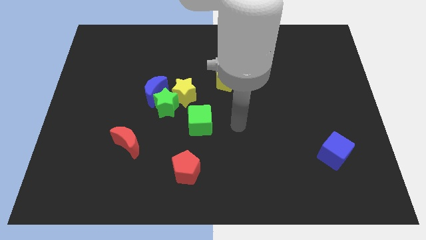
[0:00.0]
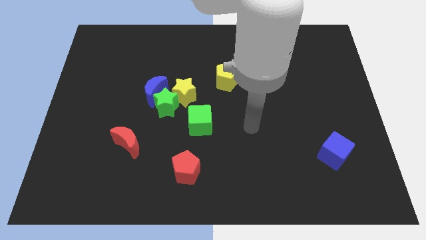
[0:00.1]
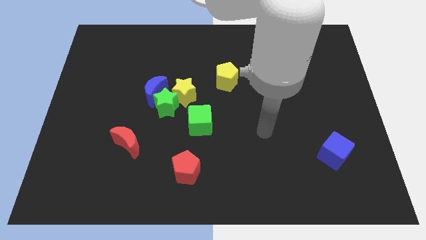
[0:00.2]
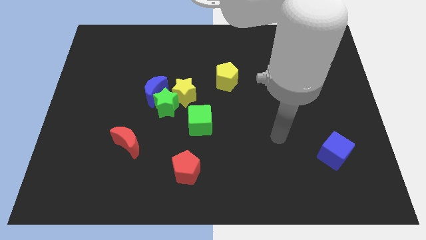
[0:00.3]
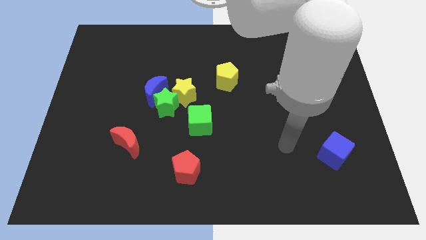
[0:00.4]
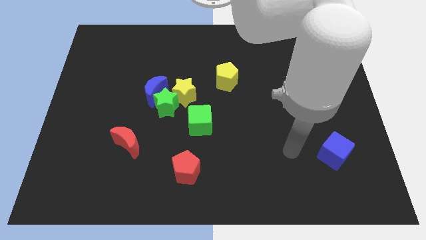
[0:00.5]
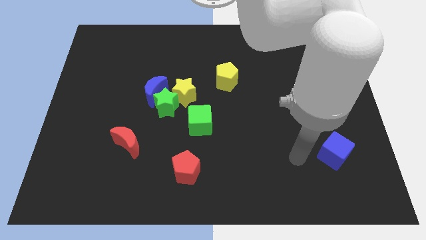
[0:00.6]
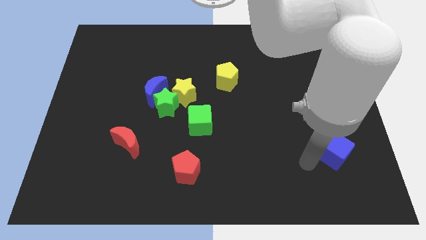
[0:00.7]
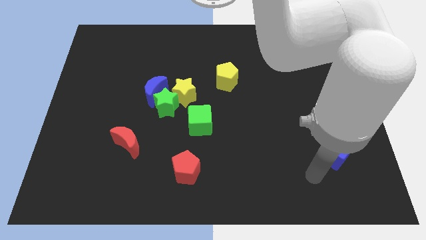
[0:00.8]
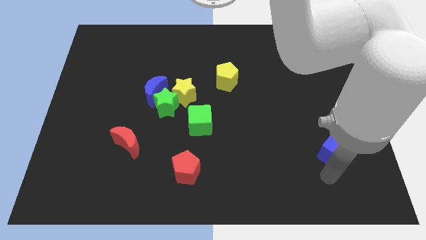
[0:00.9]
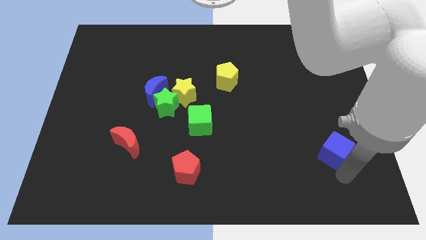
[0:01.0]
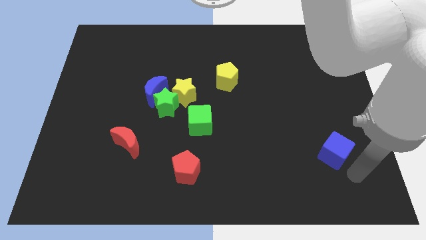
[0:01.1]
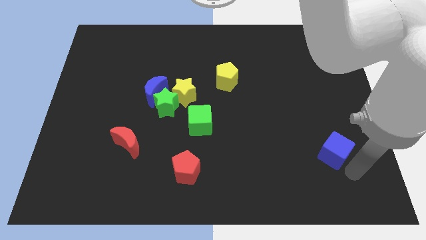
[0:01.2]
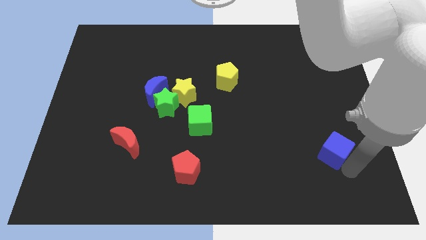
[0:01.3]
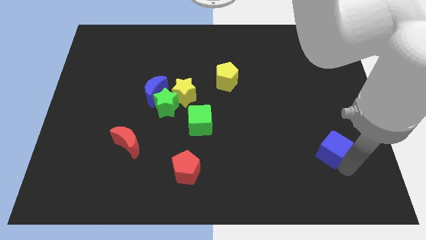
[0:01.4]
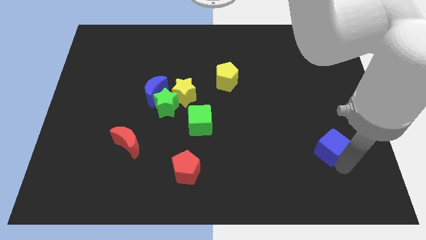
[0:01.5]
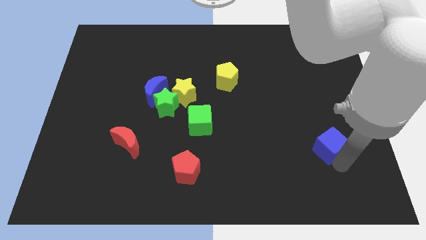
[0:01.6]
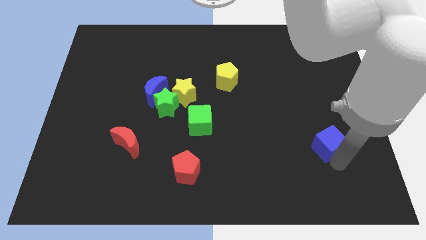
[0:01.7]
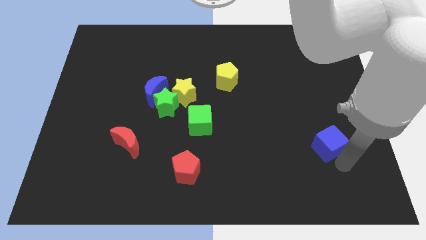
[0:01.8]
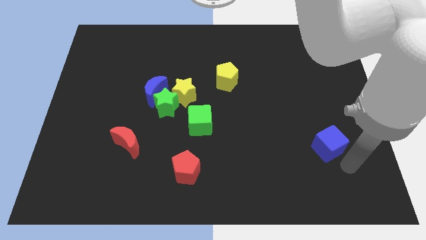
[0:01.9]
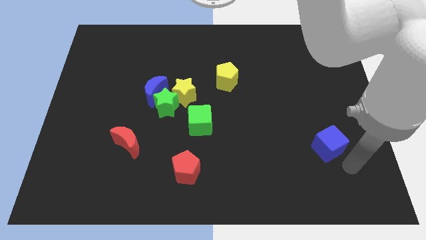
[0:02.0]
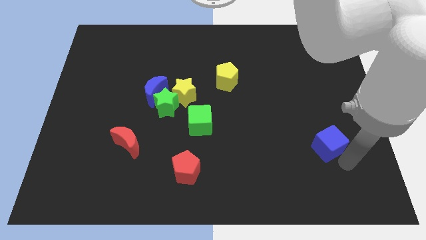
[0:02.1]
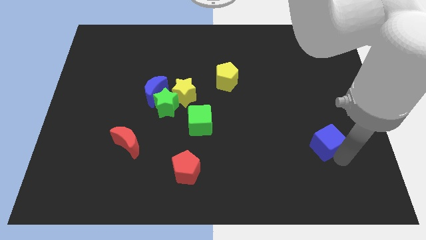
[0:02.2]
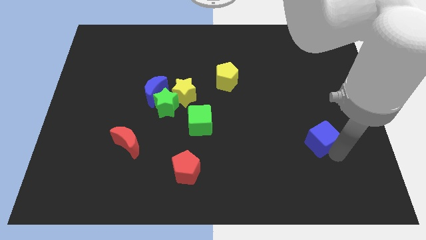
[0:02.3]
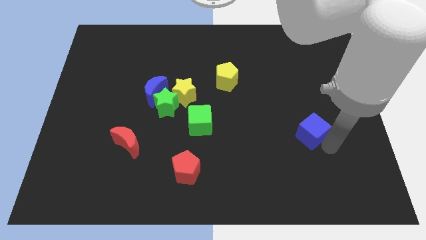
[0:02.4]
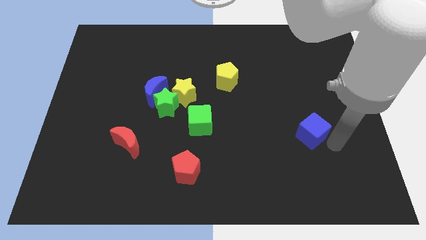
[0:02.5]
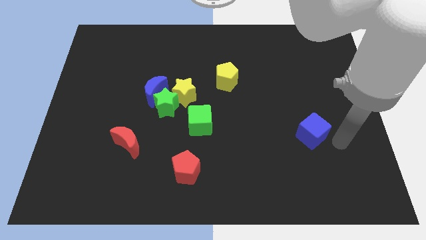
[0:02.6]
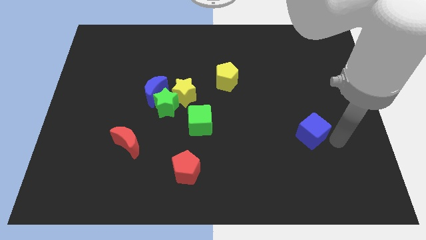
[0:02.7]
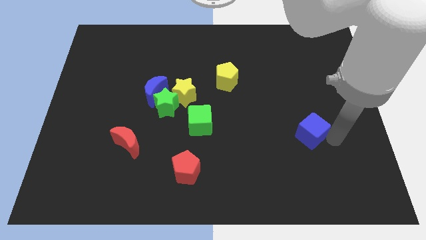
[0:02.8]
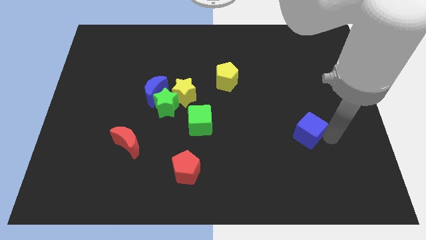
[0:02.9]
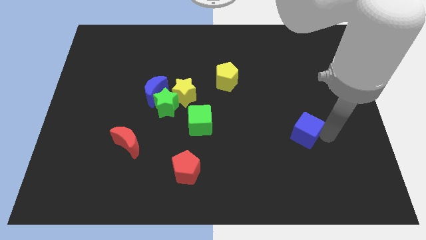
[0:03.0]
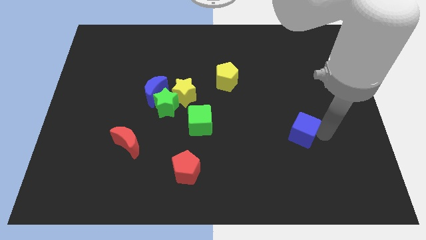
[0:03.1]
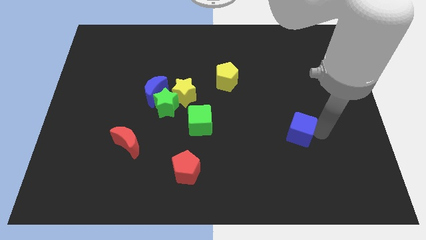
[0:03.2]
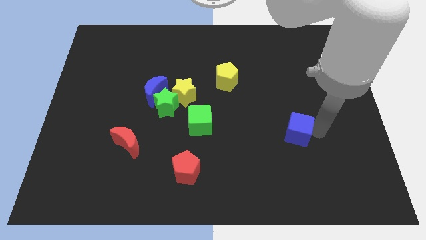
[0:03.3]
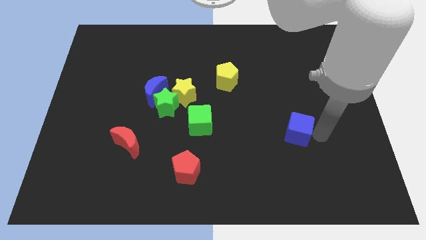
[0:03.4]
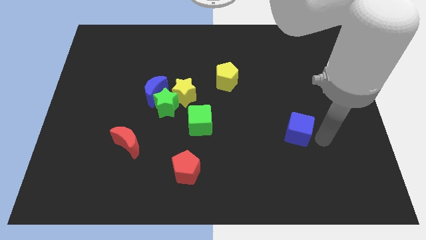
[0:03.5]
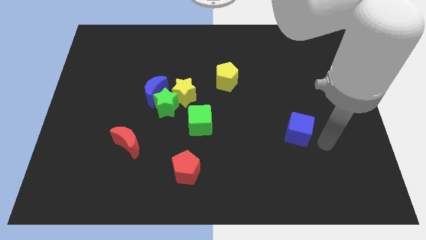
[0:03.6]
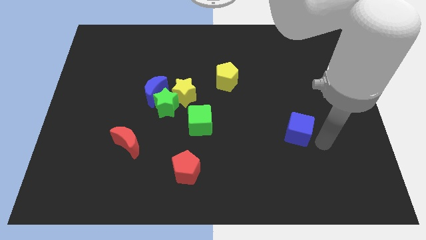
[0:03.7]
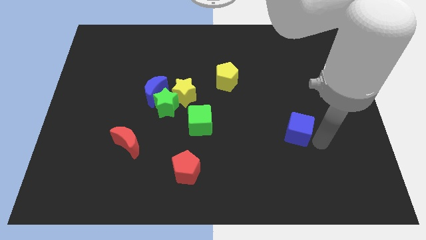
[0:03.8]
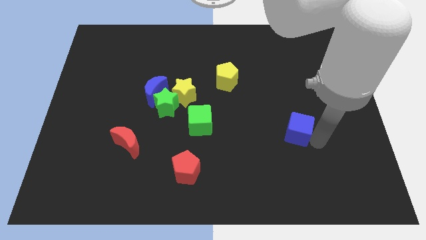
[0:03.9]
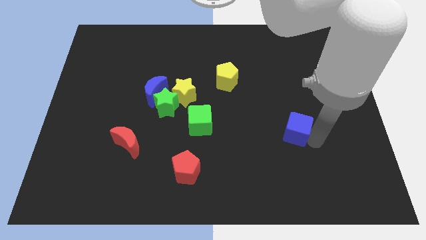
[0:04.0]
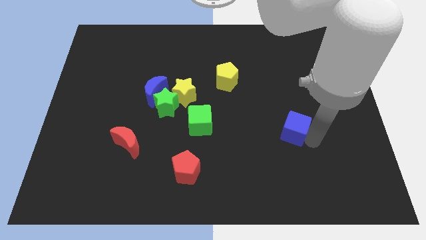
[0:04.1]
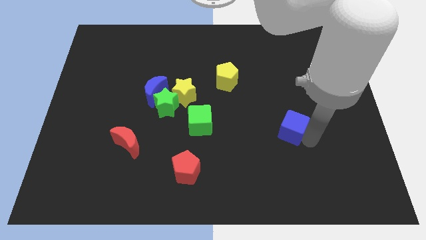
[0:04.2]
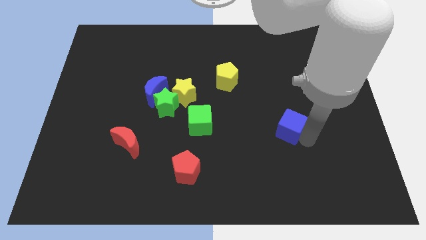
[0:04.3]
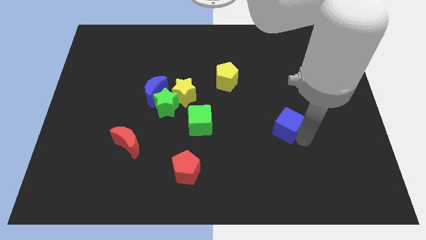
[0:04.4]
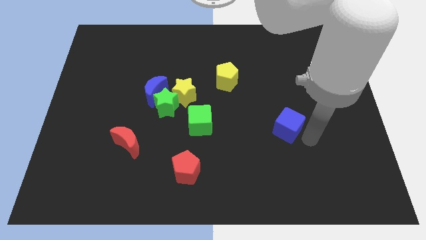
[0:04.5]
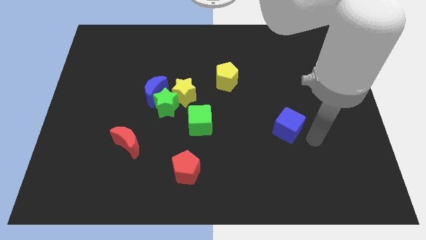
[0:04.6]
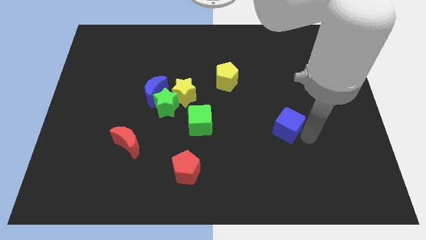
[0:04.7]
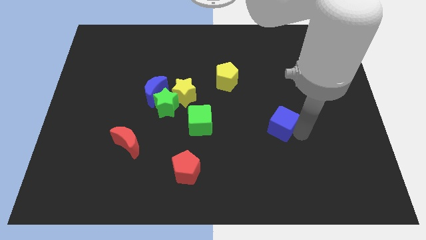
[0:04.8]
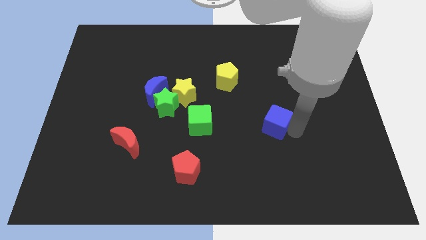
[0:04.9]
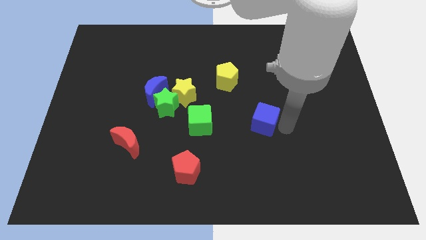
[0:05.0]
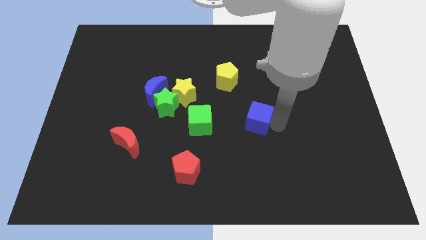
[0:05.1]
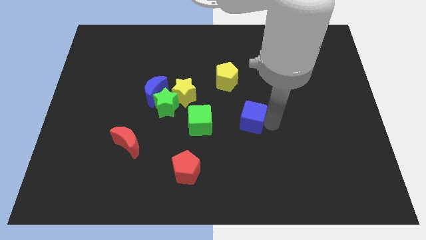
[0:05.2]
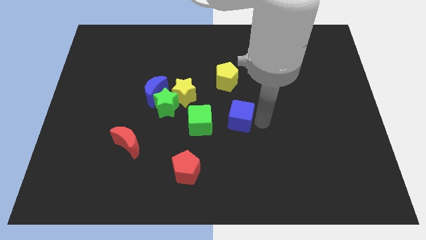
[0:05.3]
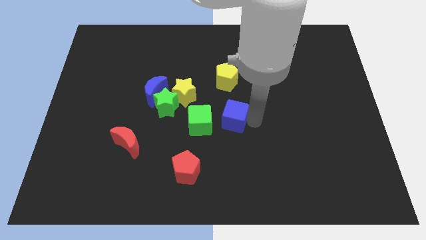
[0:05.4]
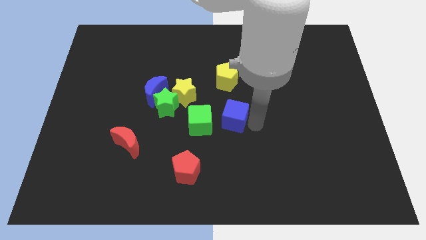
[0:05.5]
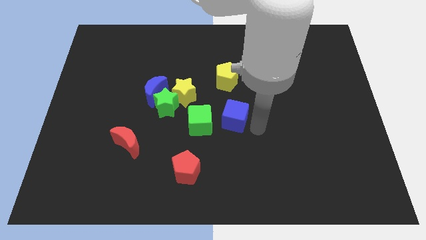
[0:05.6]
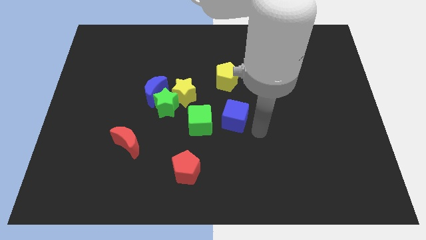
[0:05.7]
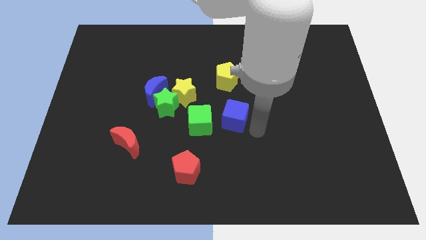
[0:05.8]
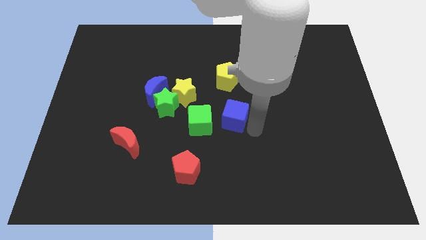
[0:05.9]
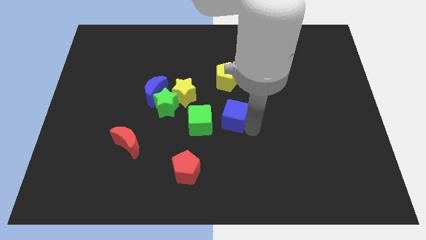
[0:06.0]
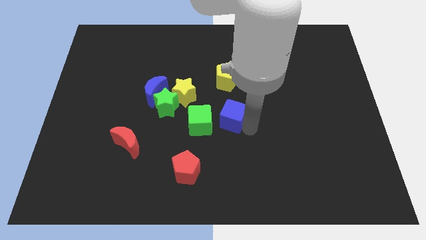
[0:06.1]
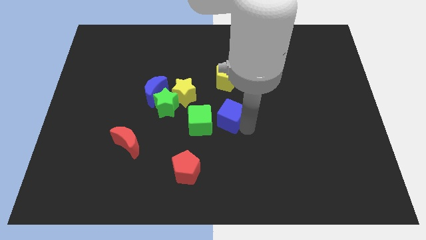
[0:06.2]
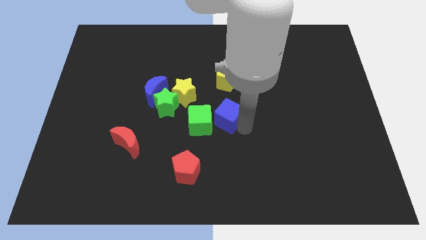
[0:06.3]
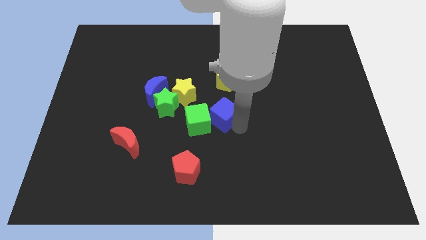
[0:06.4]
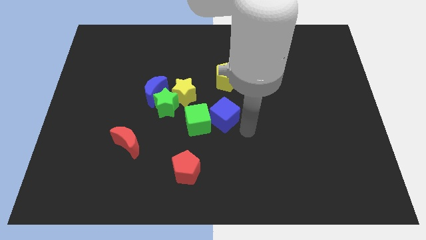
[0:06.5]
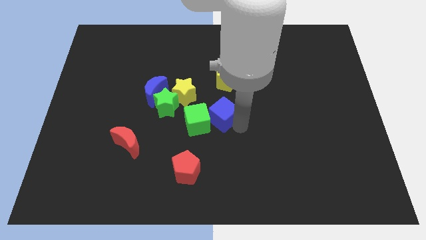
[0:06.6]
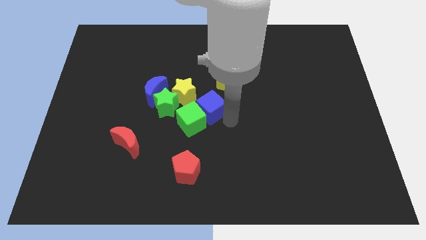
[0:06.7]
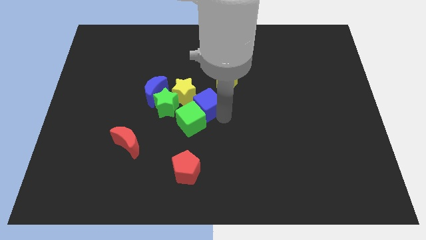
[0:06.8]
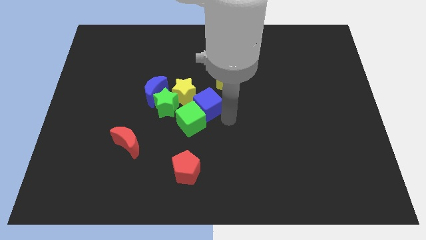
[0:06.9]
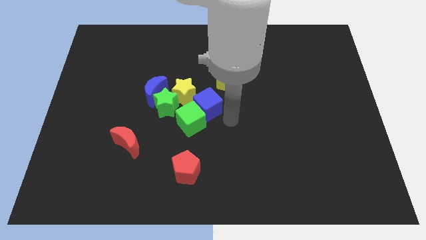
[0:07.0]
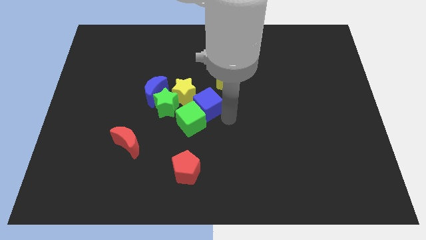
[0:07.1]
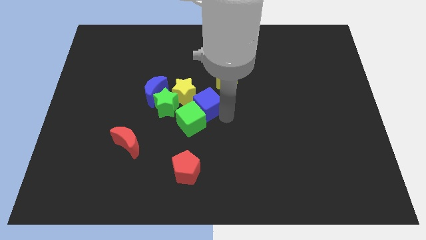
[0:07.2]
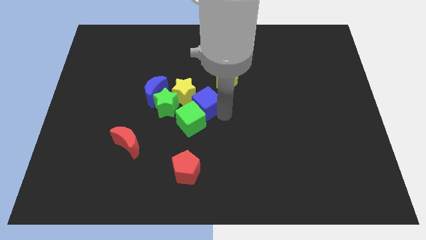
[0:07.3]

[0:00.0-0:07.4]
put the blue cube next to the yellow star
